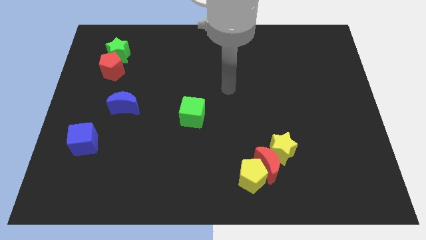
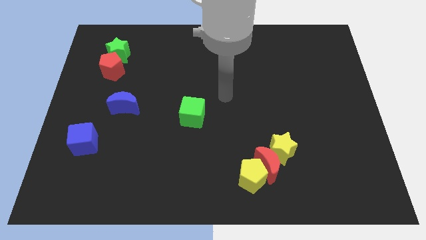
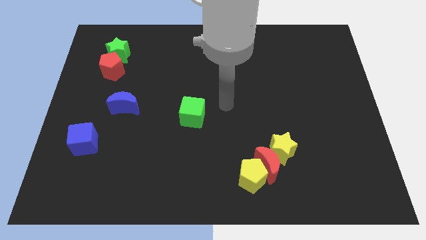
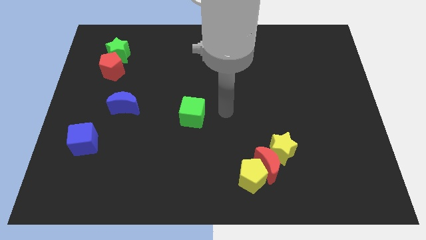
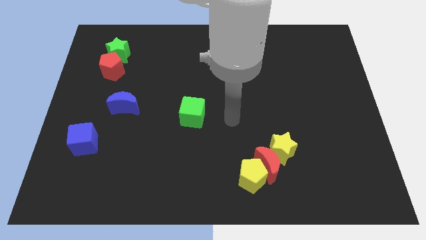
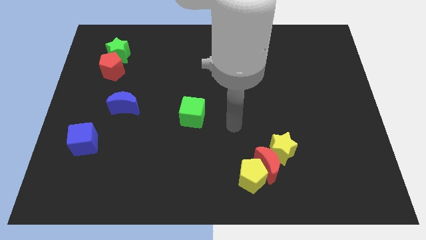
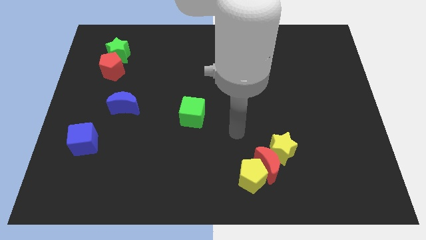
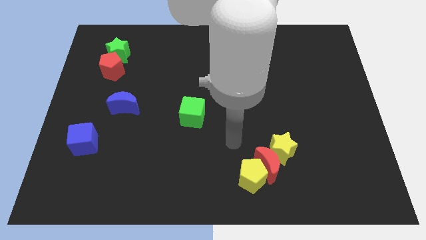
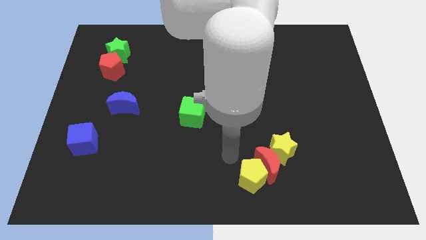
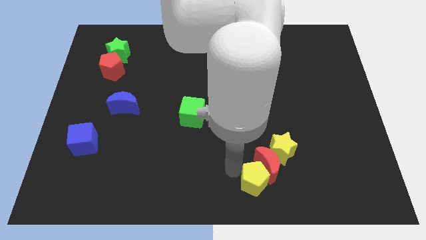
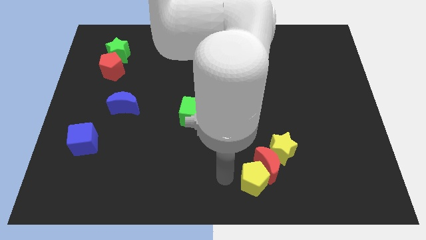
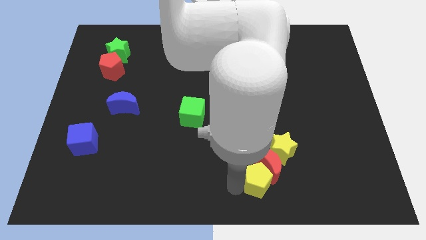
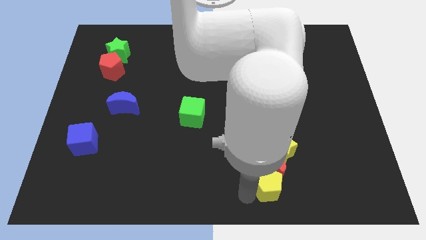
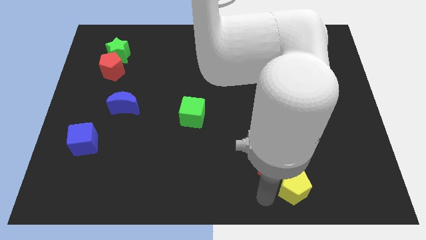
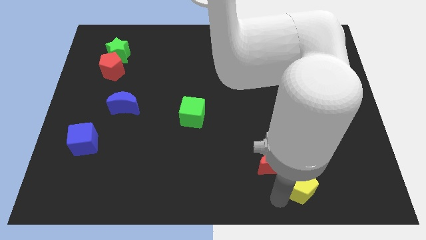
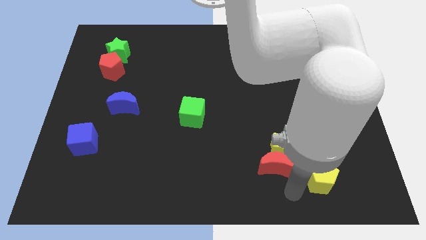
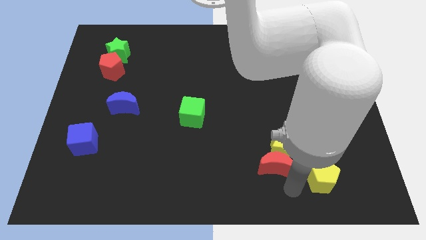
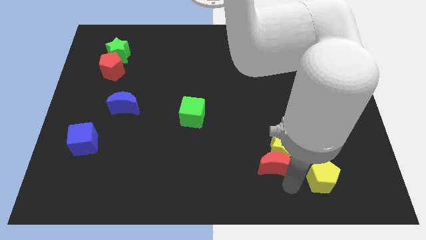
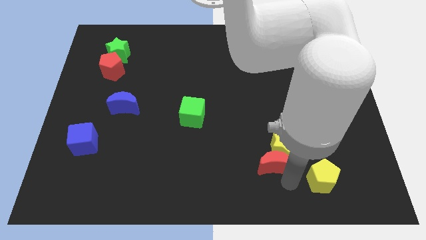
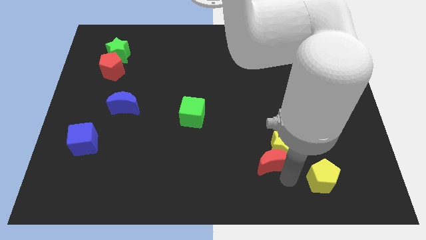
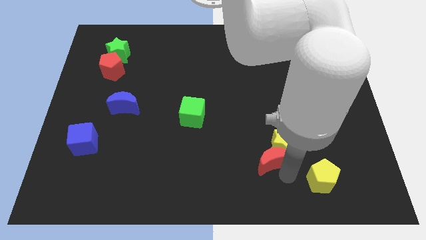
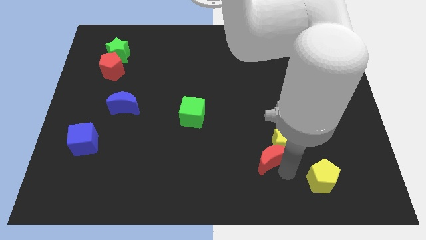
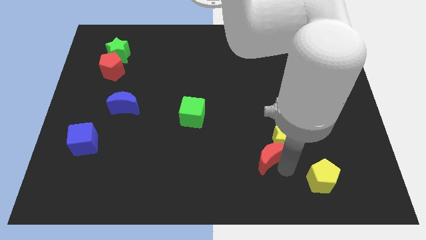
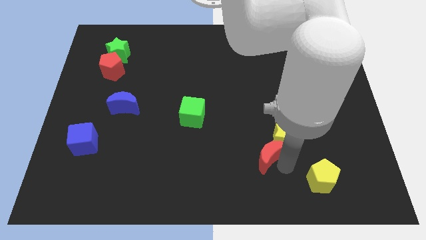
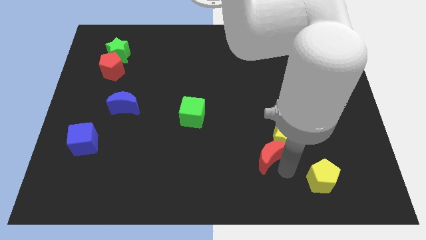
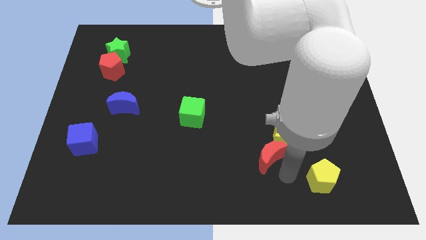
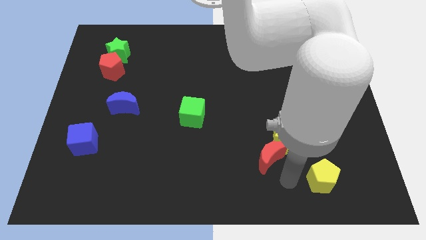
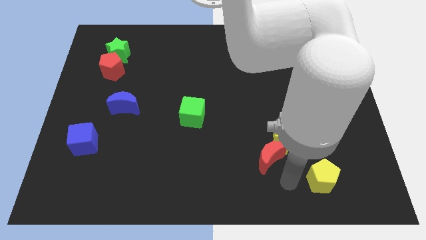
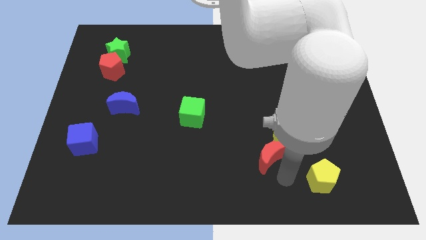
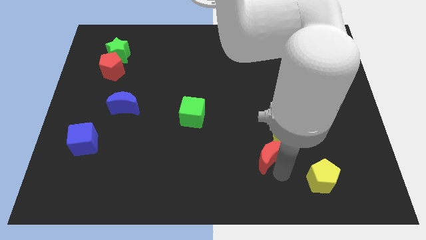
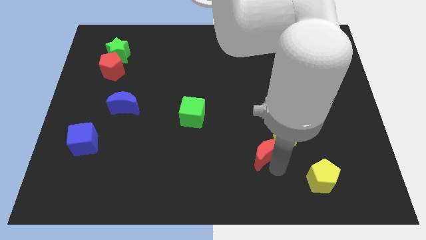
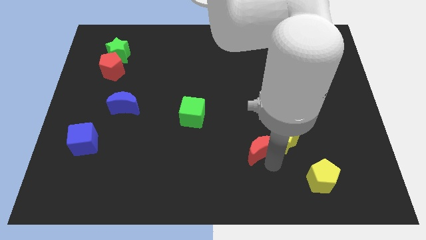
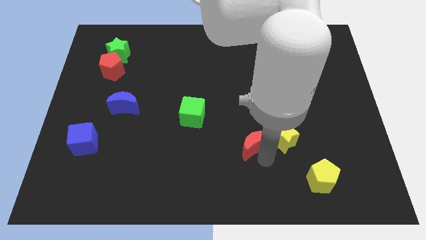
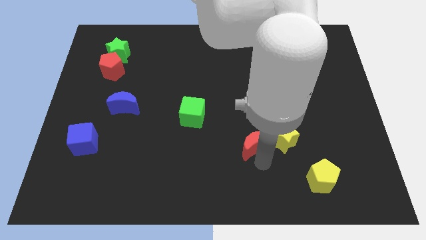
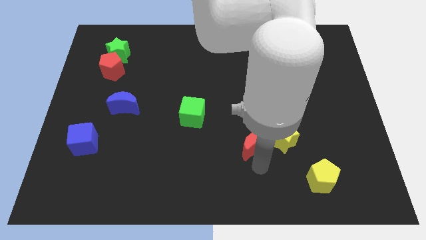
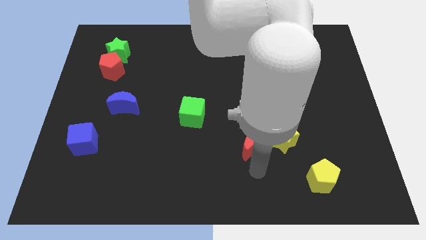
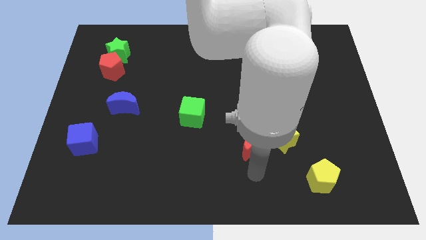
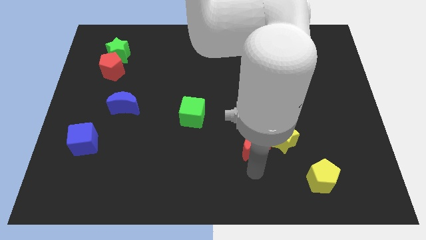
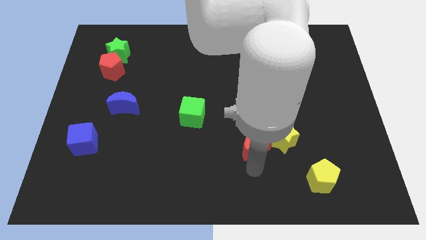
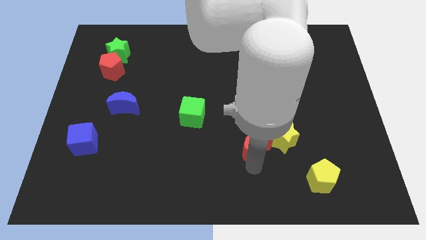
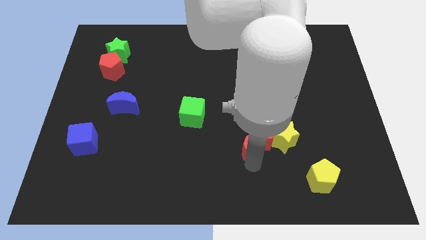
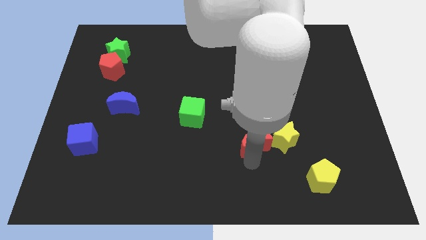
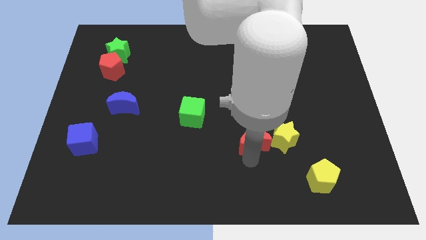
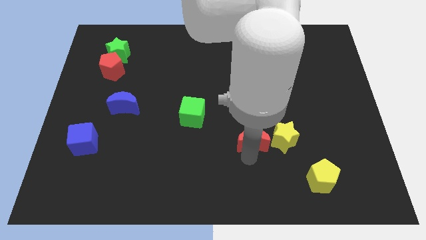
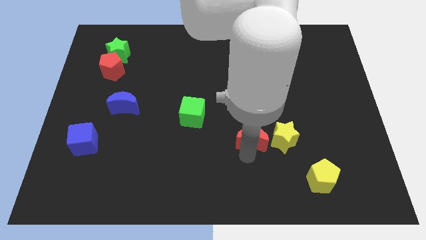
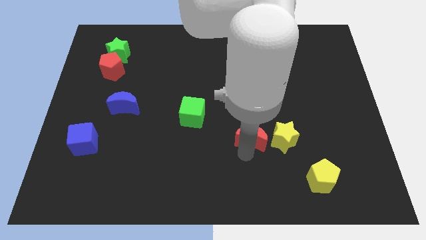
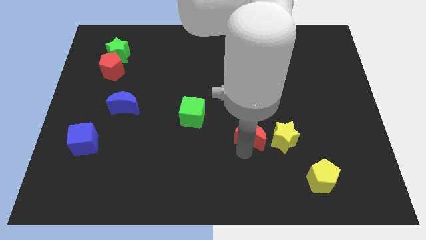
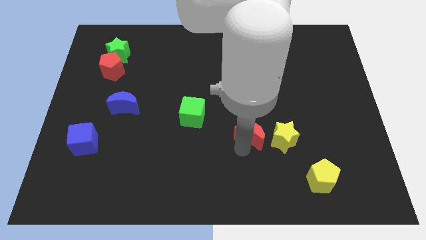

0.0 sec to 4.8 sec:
slide the red moon up slightly

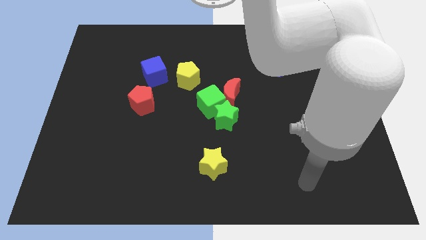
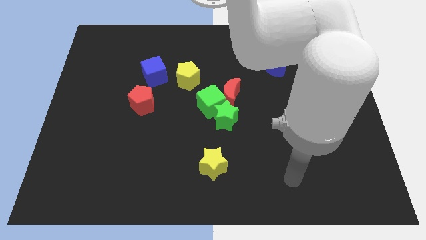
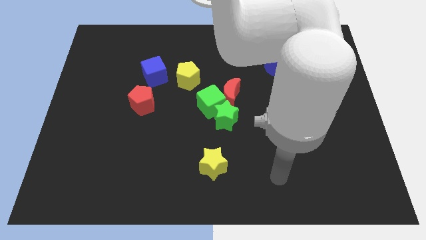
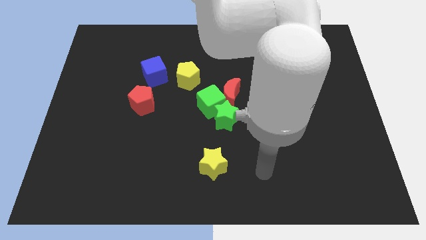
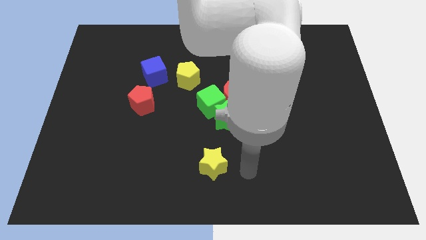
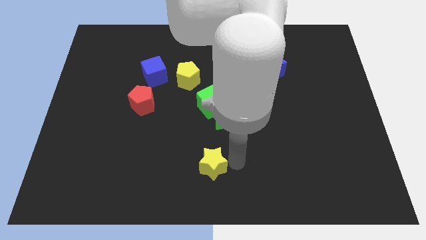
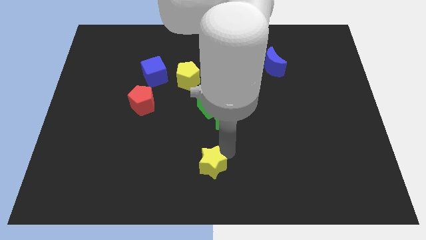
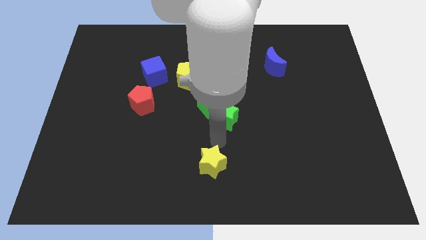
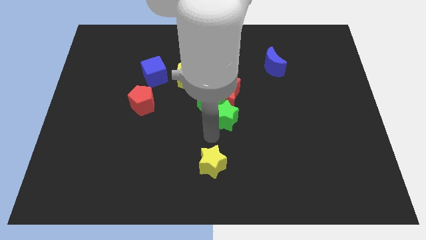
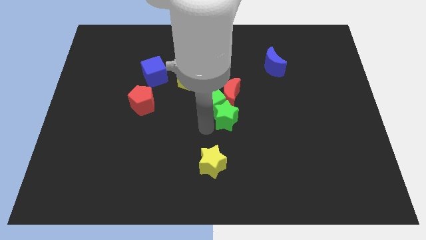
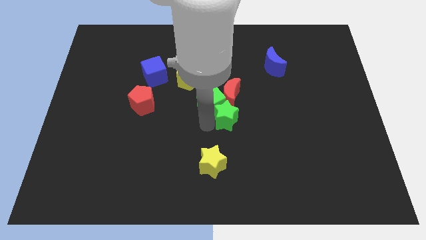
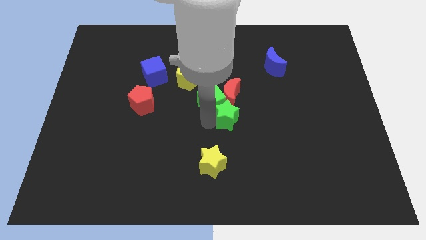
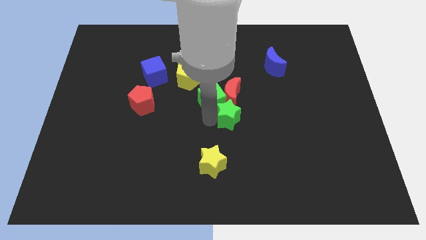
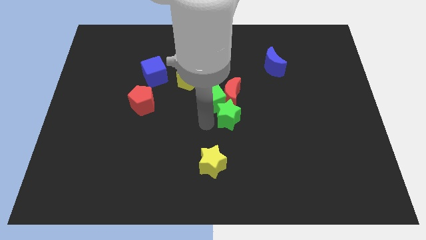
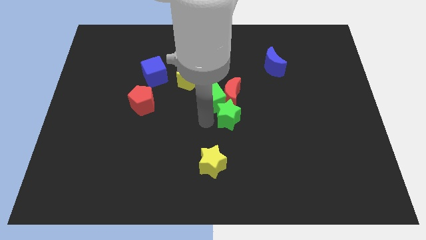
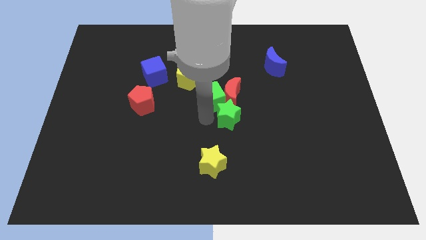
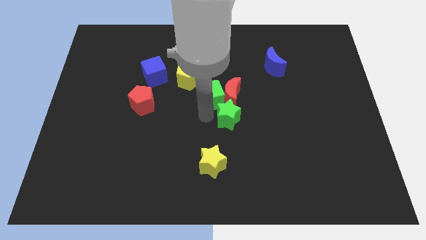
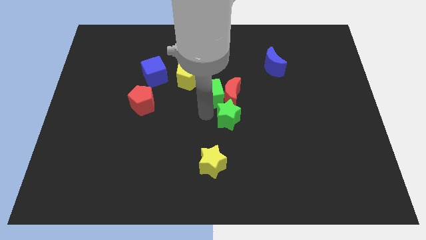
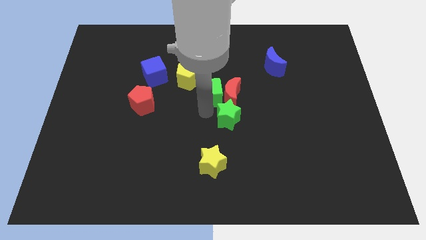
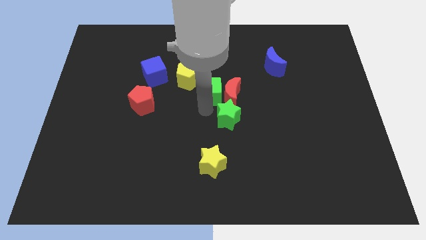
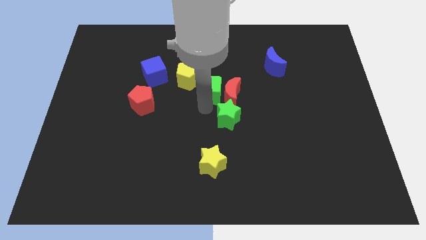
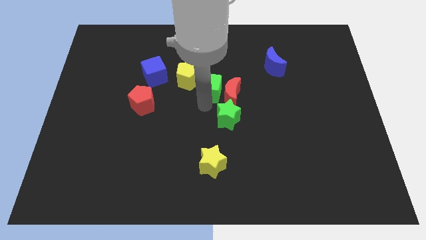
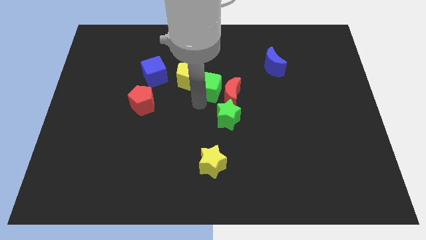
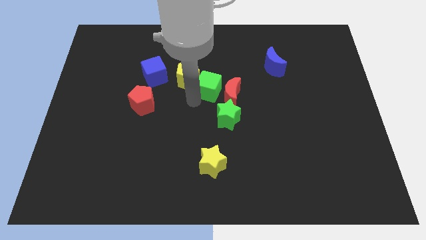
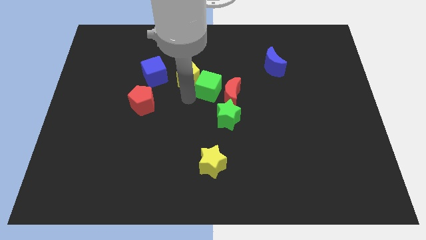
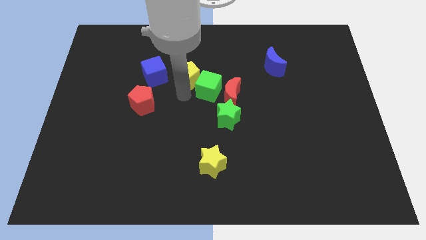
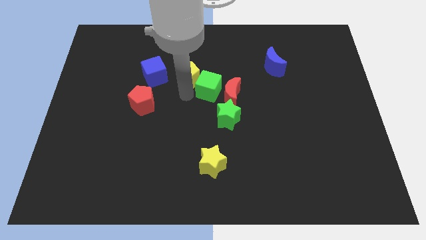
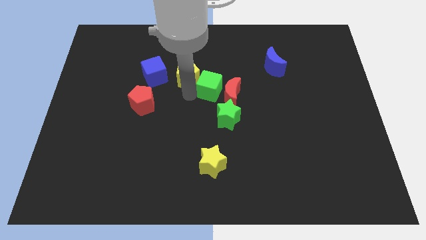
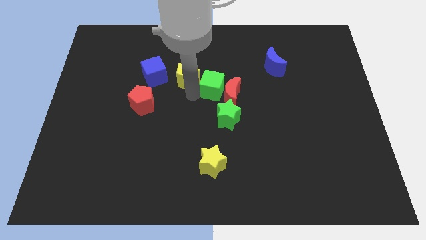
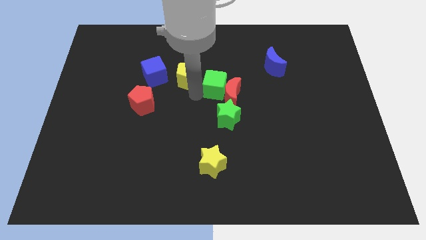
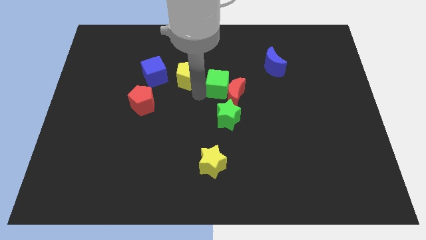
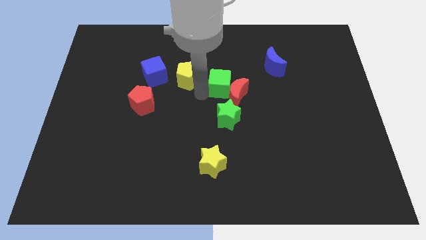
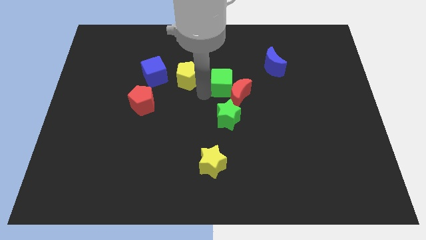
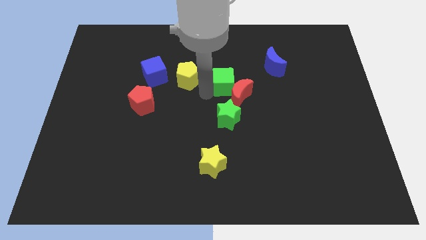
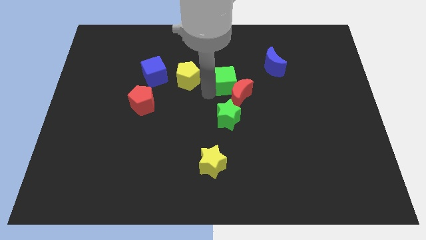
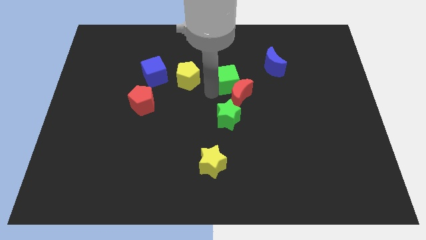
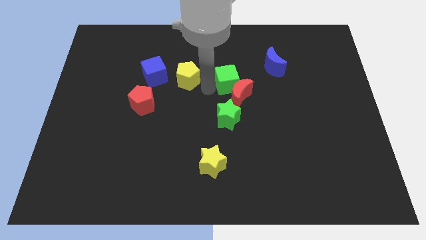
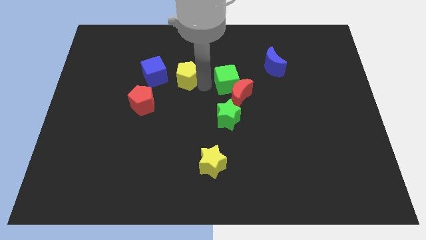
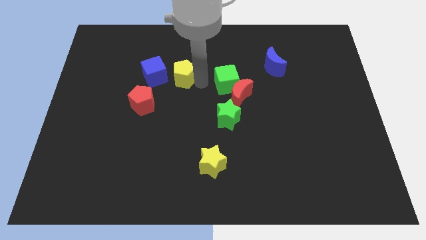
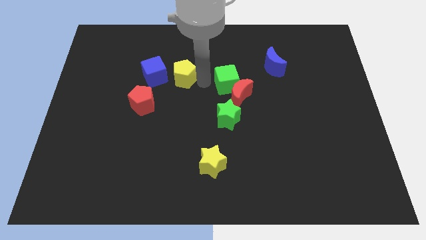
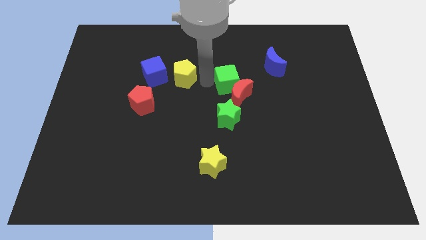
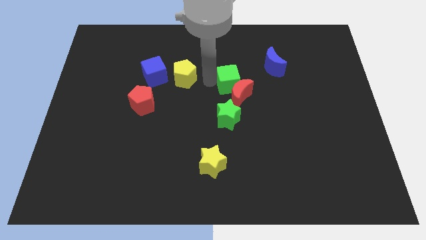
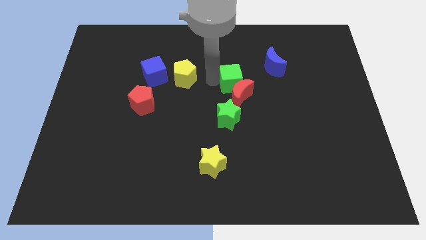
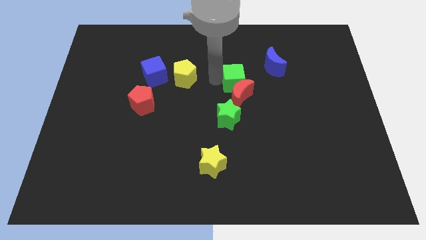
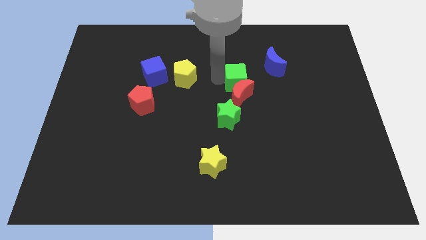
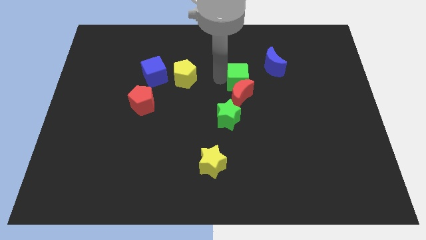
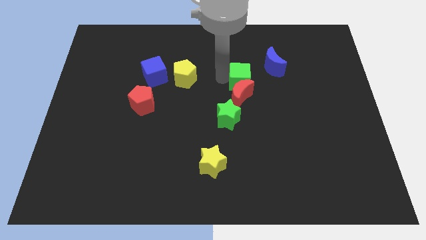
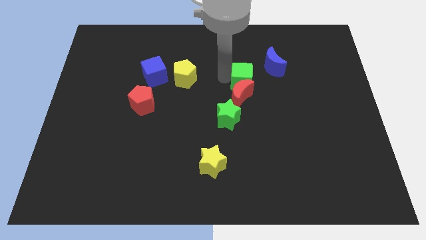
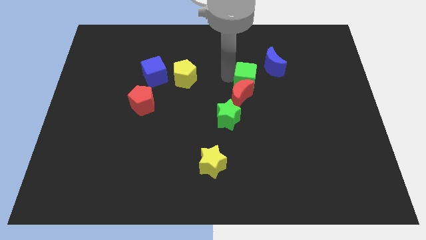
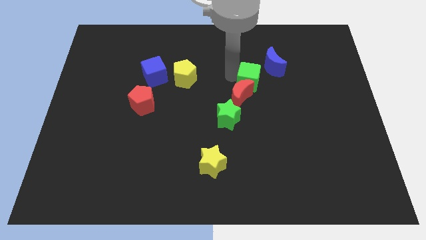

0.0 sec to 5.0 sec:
slide the green cube right a little bit
